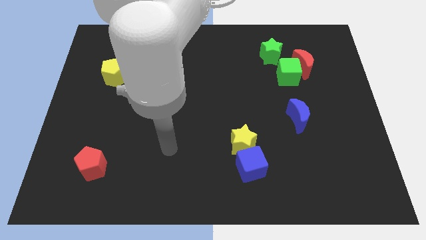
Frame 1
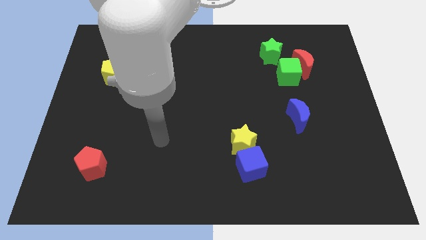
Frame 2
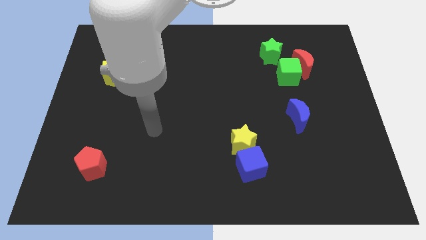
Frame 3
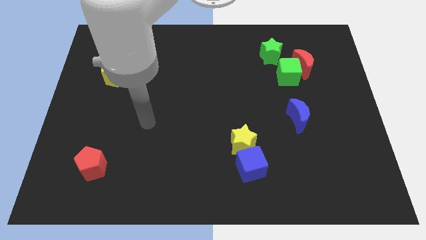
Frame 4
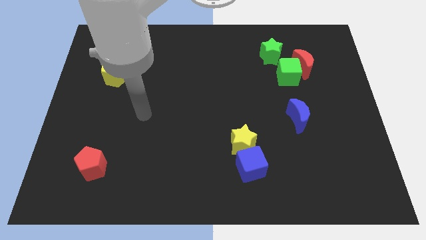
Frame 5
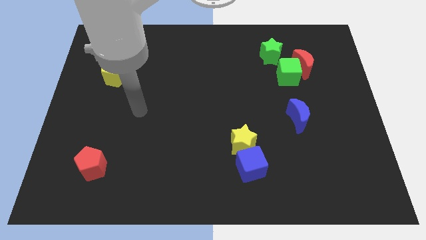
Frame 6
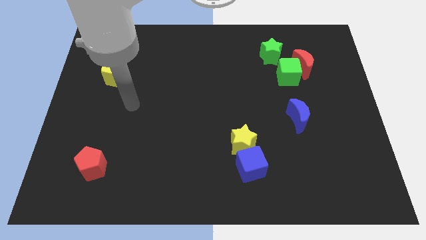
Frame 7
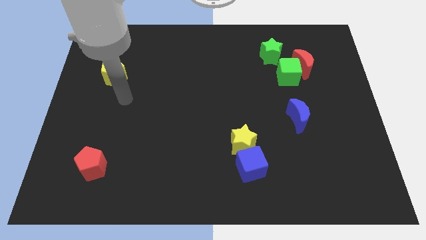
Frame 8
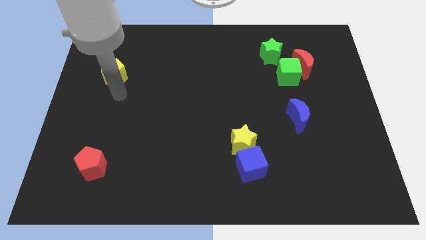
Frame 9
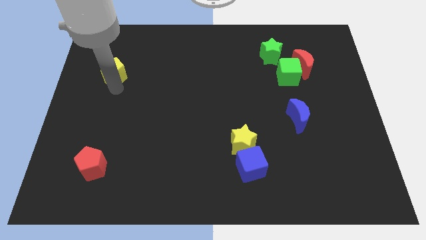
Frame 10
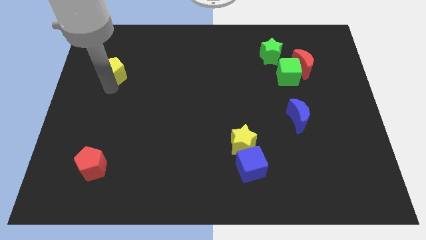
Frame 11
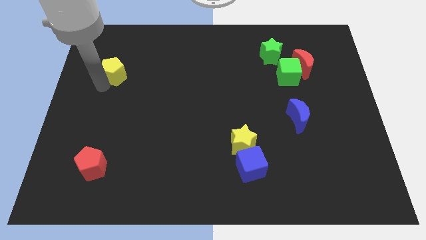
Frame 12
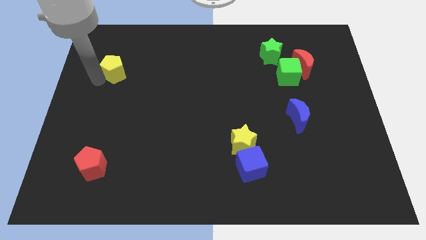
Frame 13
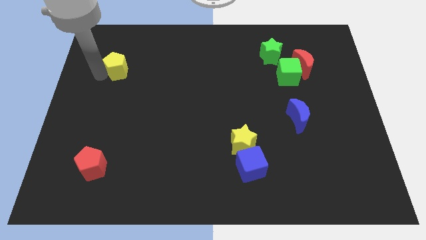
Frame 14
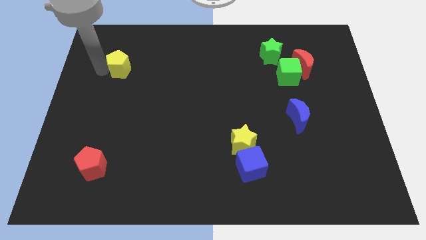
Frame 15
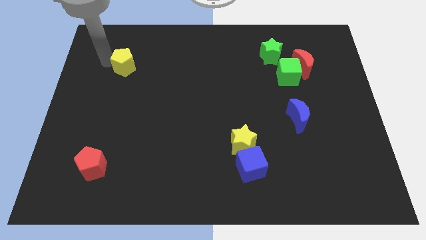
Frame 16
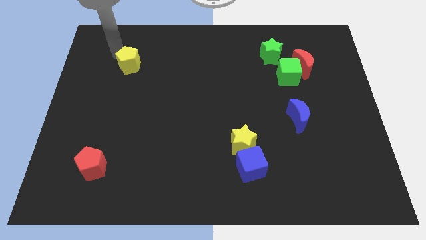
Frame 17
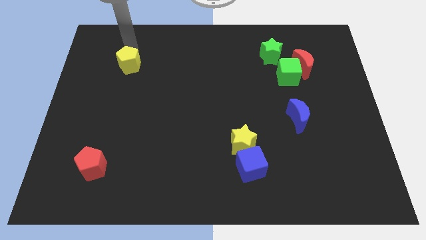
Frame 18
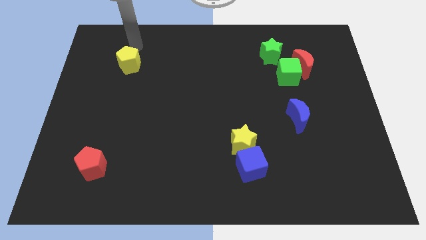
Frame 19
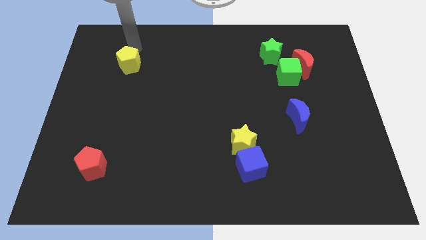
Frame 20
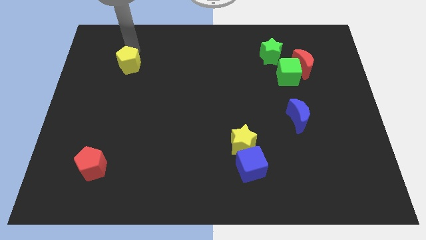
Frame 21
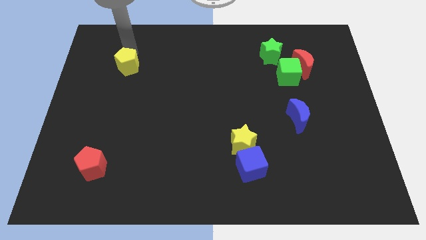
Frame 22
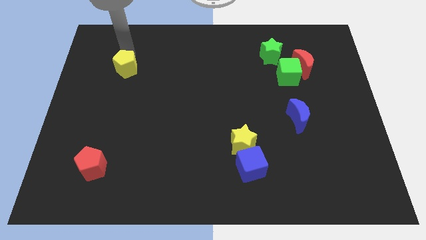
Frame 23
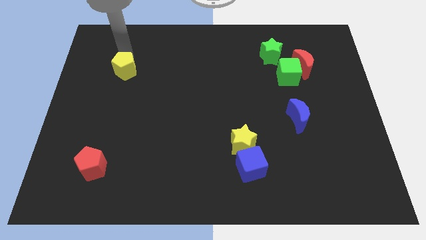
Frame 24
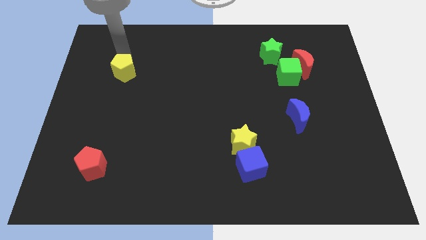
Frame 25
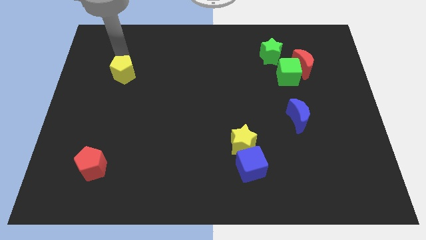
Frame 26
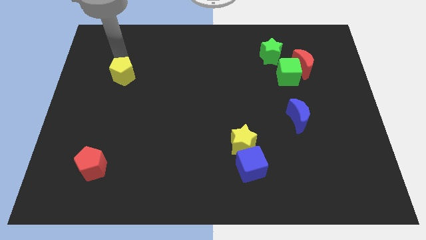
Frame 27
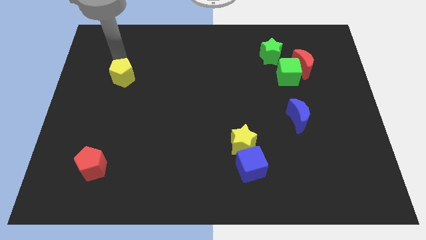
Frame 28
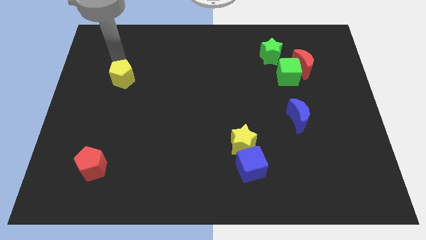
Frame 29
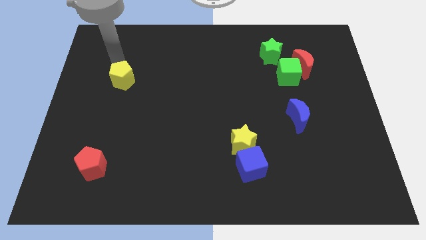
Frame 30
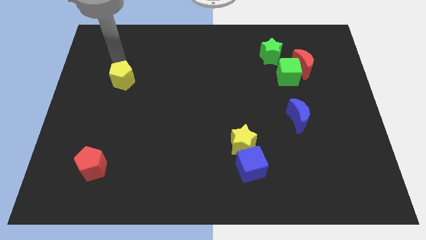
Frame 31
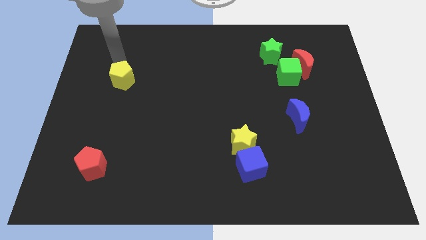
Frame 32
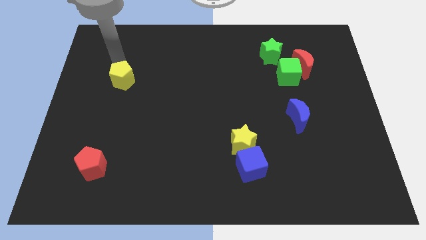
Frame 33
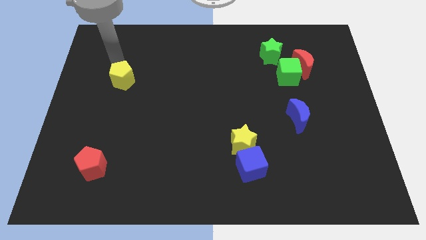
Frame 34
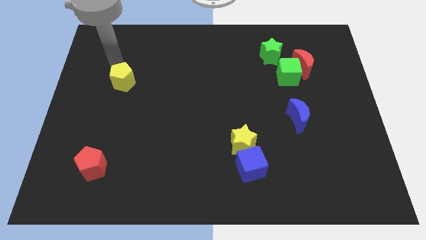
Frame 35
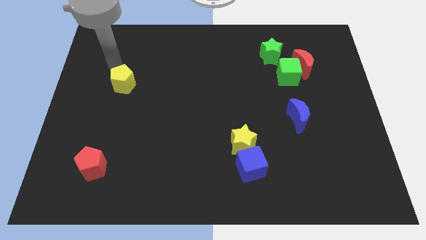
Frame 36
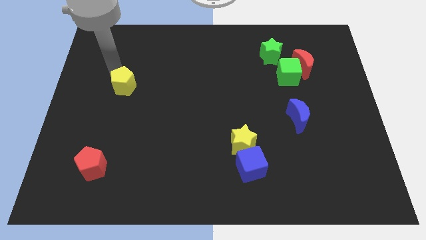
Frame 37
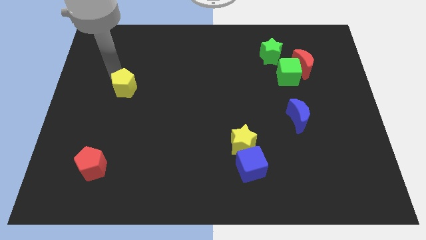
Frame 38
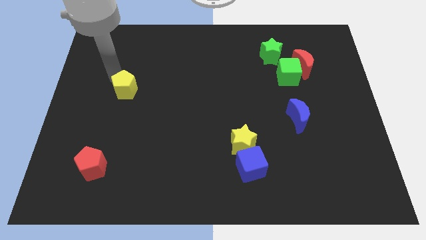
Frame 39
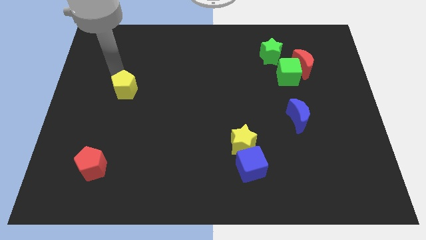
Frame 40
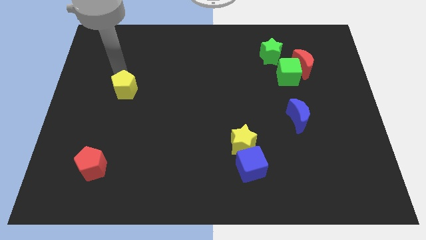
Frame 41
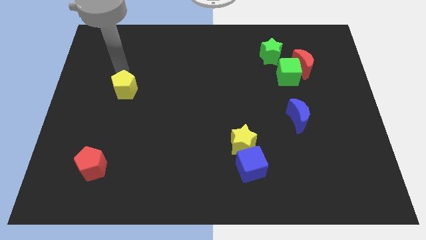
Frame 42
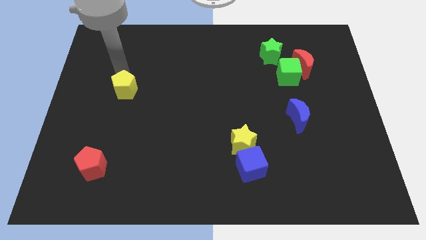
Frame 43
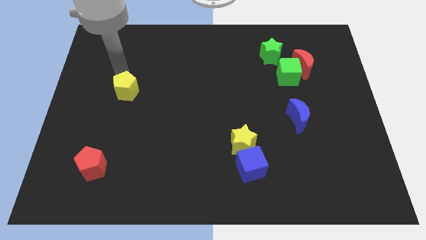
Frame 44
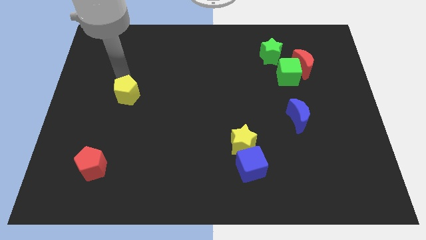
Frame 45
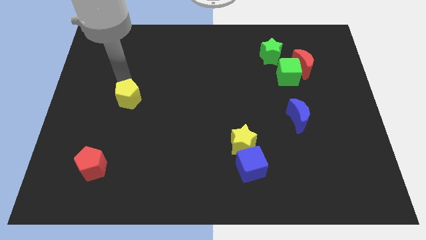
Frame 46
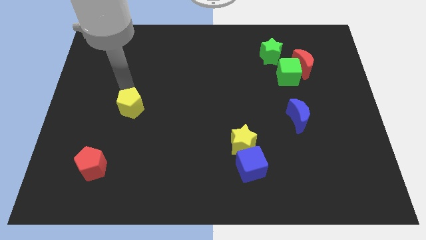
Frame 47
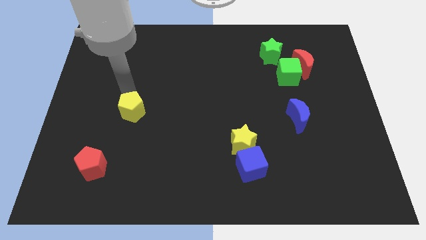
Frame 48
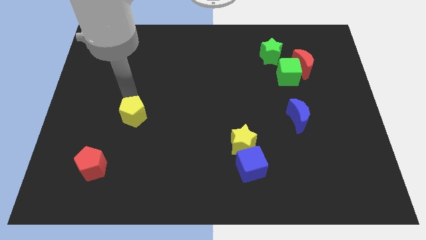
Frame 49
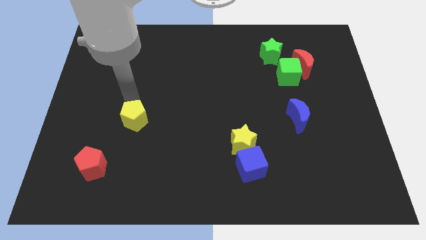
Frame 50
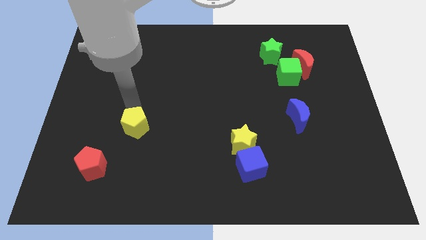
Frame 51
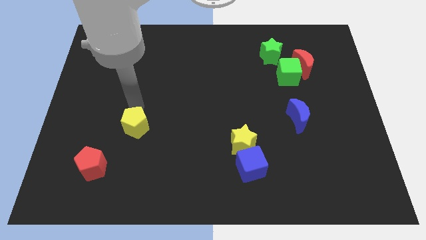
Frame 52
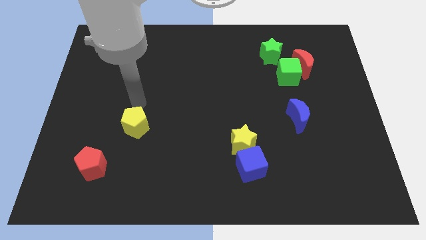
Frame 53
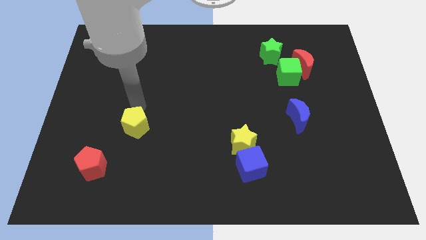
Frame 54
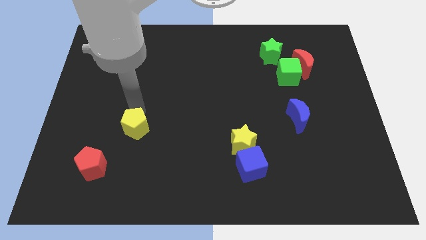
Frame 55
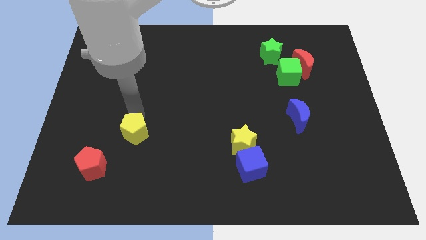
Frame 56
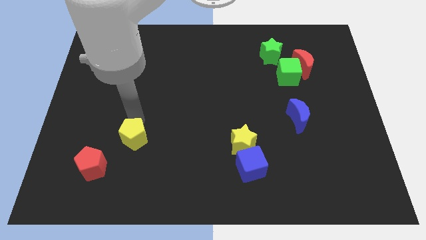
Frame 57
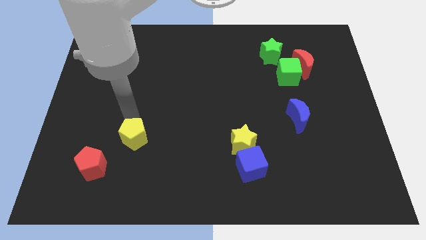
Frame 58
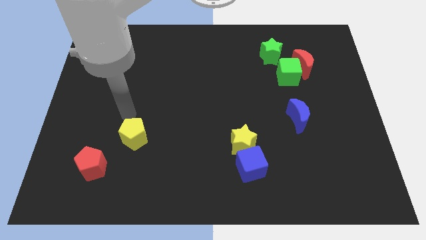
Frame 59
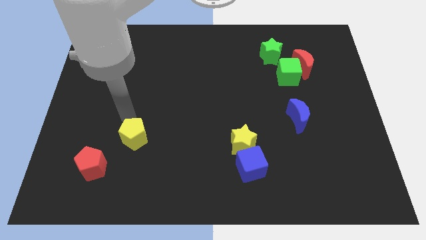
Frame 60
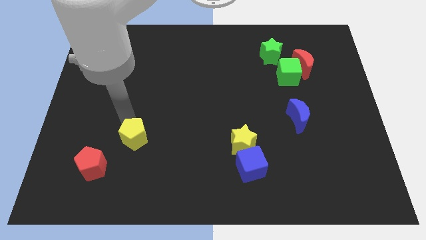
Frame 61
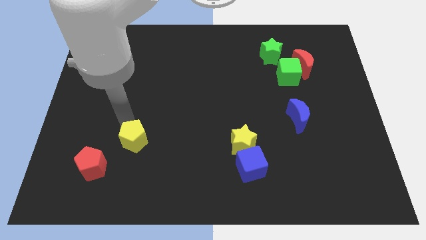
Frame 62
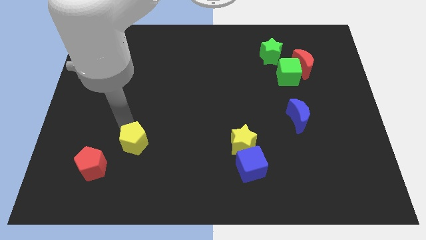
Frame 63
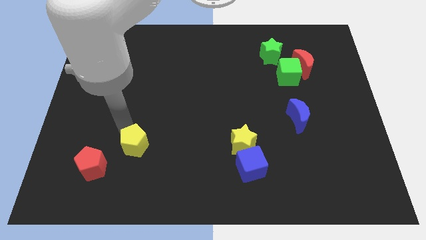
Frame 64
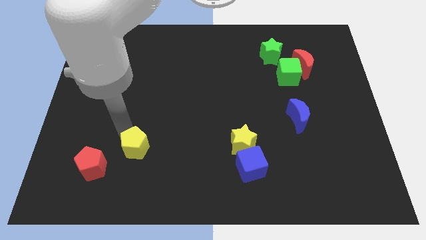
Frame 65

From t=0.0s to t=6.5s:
put the yellow pentagon to the right side of the red pentagon
